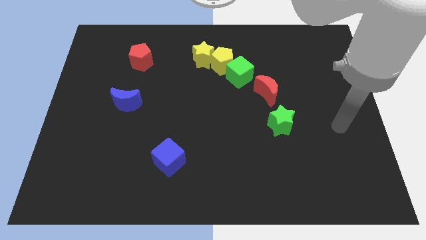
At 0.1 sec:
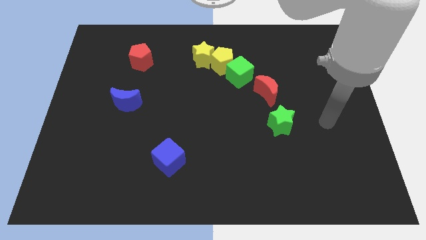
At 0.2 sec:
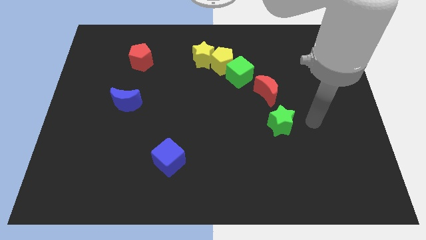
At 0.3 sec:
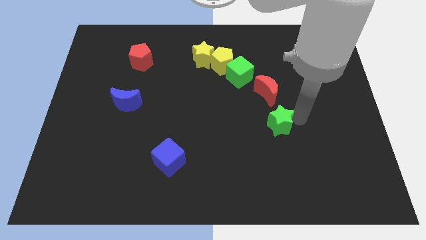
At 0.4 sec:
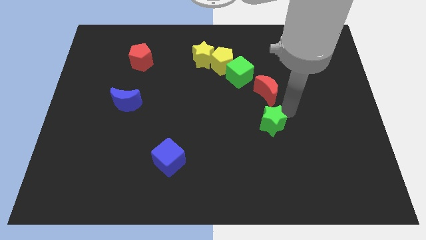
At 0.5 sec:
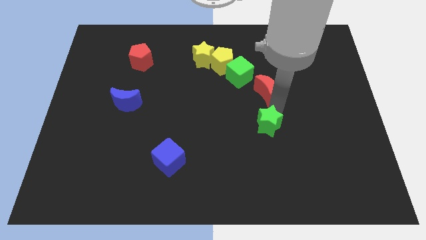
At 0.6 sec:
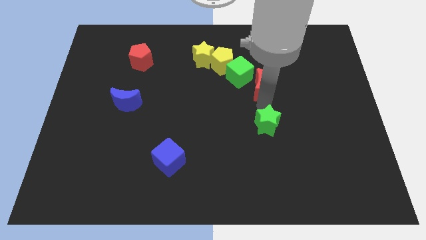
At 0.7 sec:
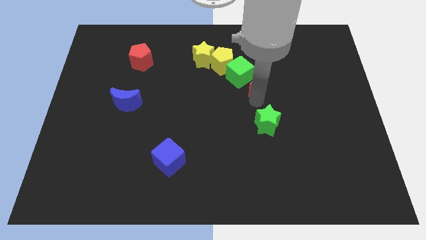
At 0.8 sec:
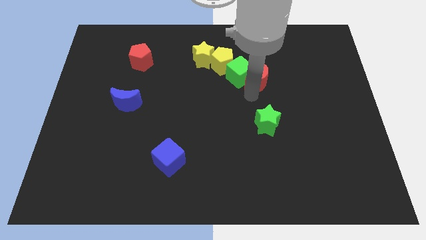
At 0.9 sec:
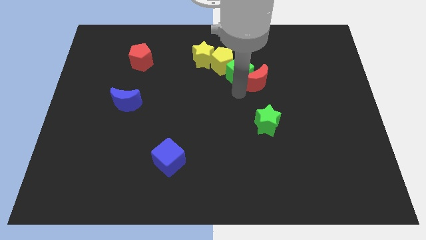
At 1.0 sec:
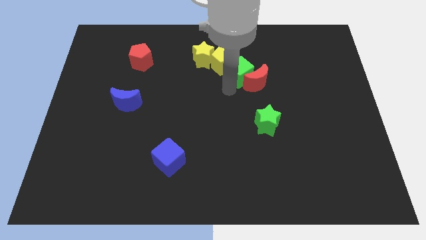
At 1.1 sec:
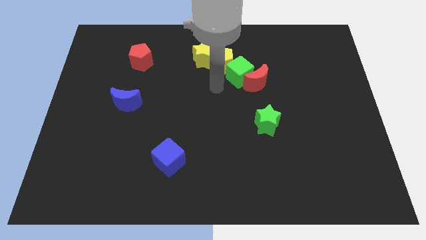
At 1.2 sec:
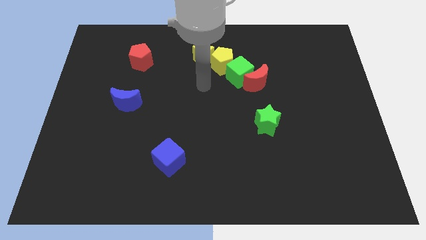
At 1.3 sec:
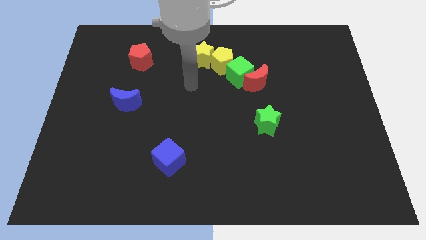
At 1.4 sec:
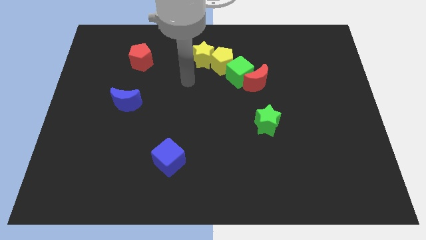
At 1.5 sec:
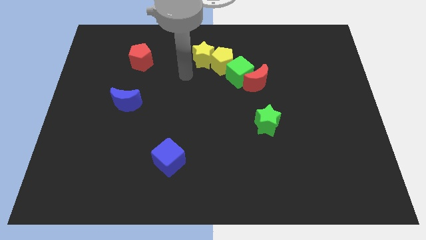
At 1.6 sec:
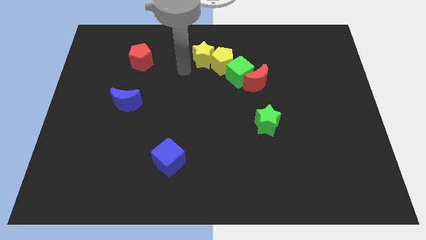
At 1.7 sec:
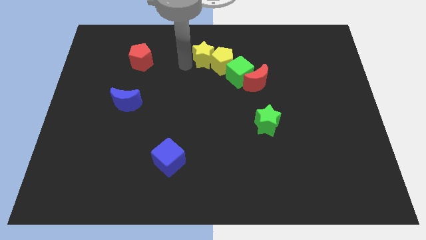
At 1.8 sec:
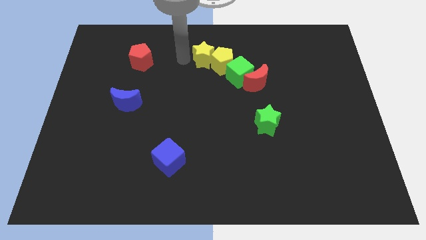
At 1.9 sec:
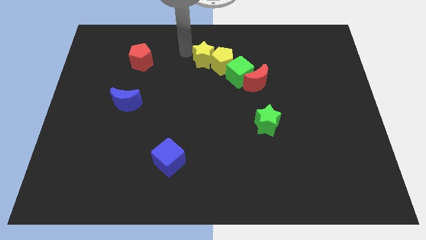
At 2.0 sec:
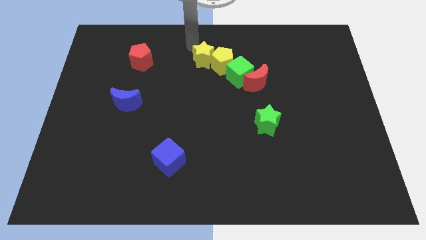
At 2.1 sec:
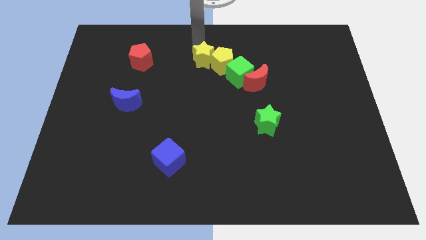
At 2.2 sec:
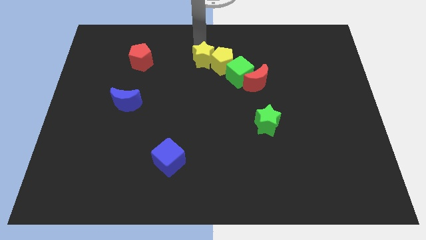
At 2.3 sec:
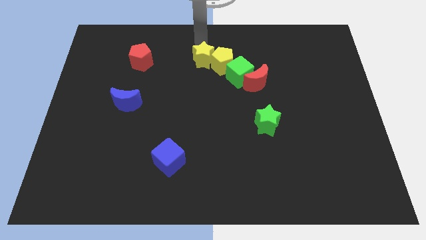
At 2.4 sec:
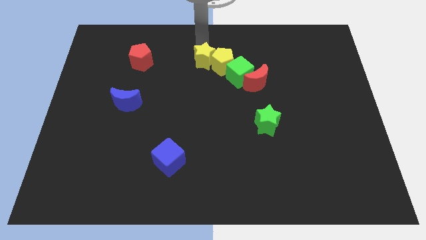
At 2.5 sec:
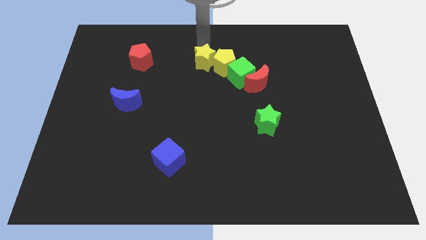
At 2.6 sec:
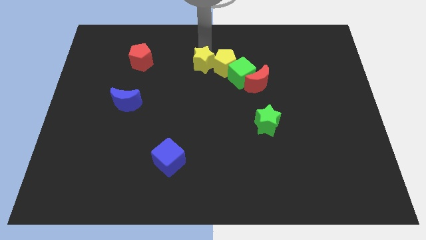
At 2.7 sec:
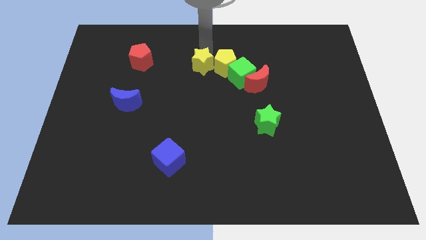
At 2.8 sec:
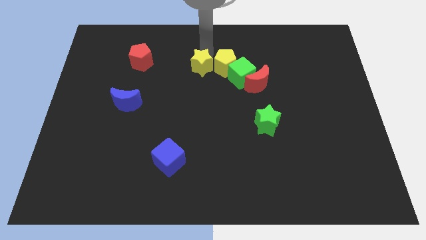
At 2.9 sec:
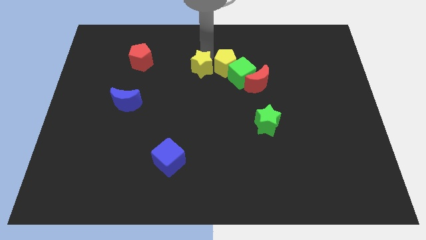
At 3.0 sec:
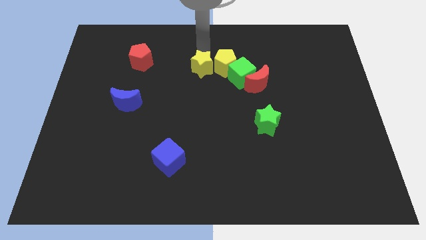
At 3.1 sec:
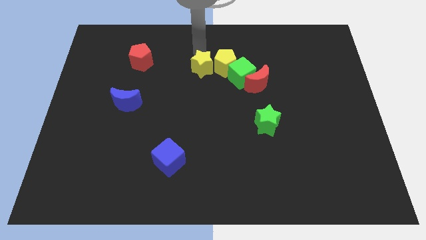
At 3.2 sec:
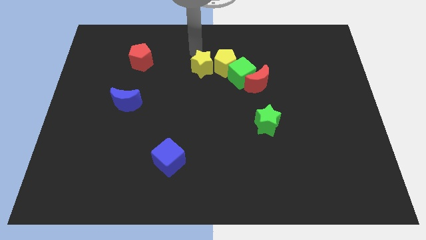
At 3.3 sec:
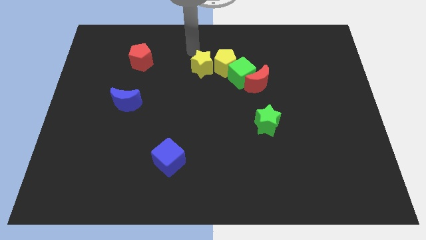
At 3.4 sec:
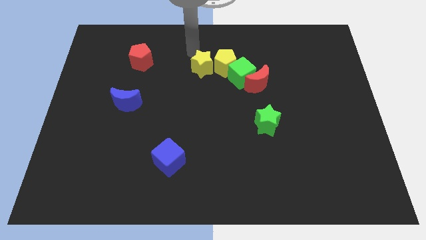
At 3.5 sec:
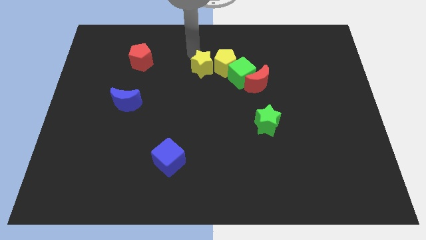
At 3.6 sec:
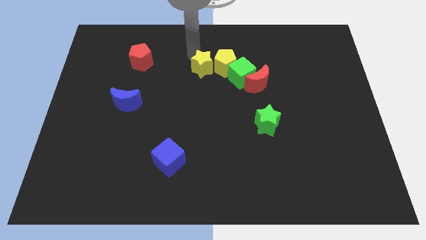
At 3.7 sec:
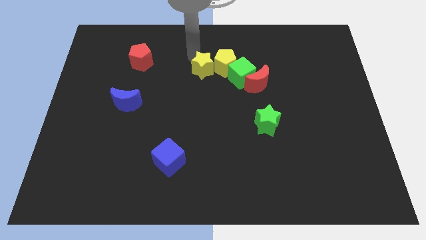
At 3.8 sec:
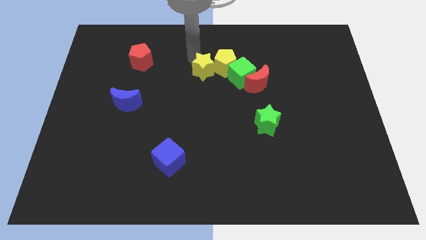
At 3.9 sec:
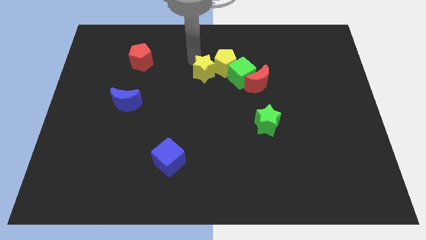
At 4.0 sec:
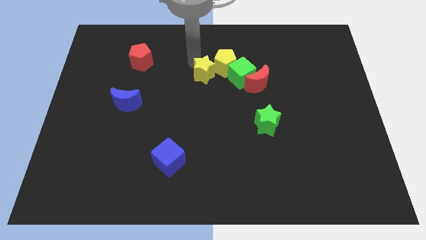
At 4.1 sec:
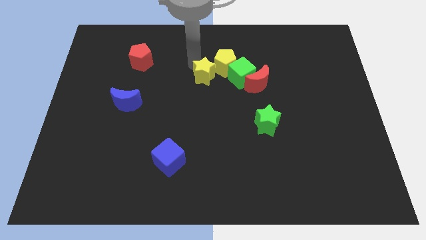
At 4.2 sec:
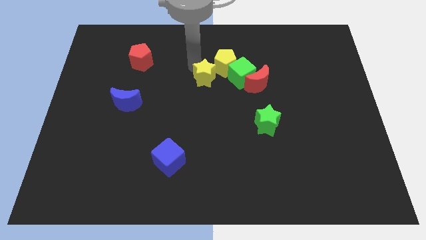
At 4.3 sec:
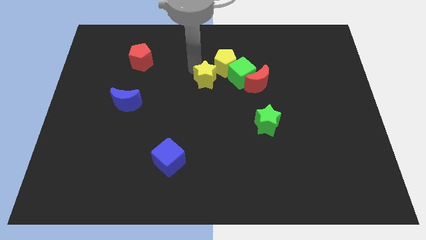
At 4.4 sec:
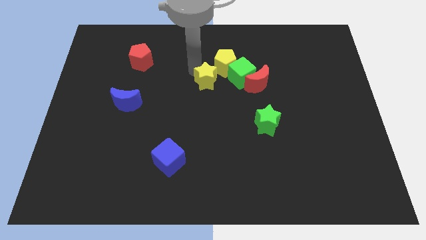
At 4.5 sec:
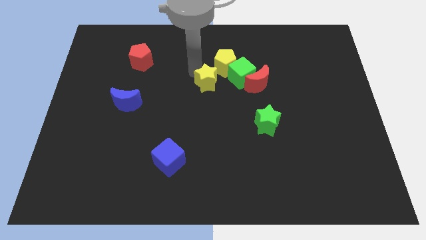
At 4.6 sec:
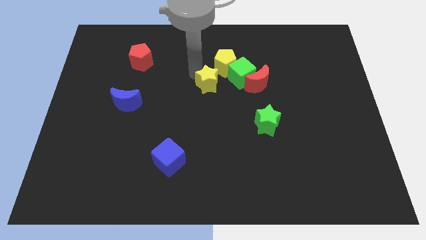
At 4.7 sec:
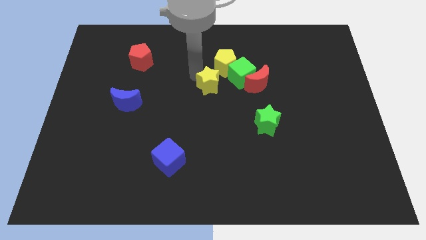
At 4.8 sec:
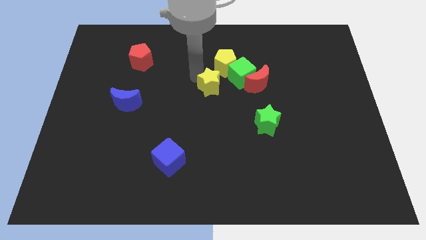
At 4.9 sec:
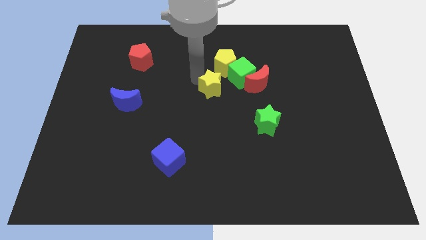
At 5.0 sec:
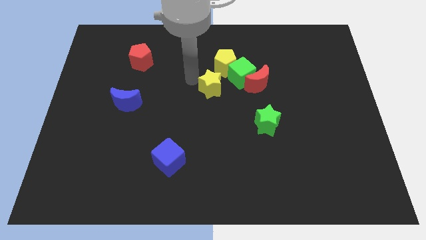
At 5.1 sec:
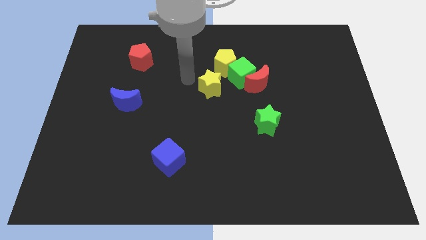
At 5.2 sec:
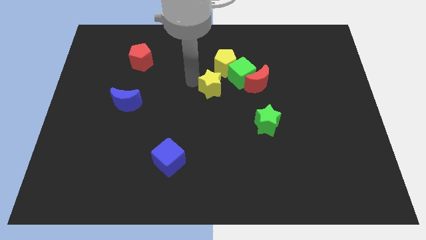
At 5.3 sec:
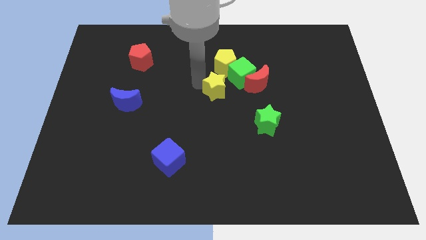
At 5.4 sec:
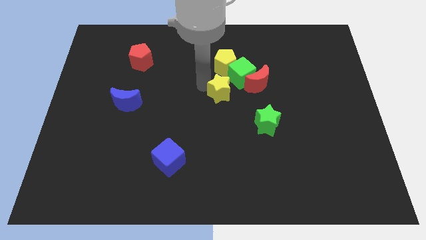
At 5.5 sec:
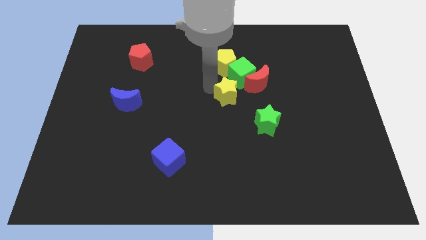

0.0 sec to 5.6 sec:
push the yellow star to the bottom of the green cube

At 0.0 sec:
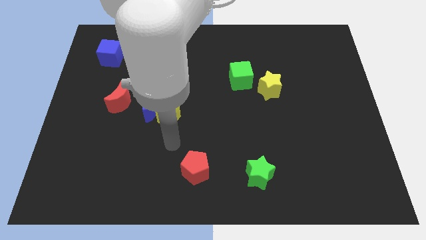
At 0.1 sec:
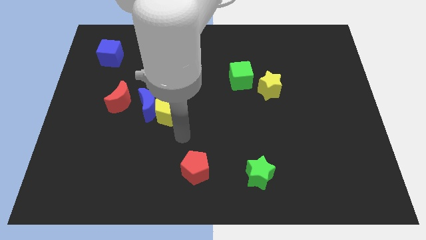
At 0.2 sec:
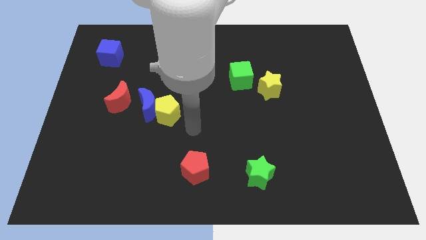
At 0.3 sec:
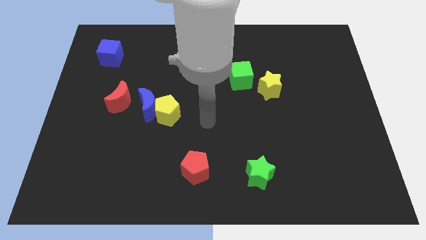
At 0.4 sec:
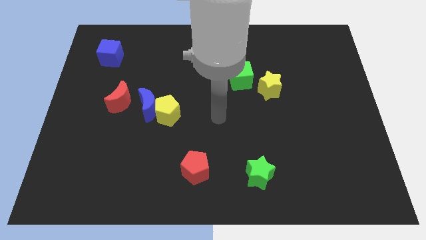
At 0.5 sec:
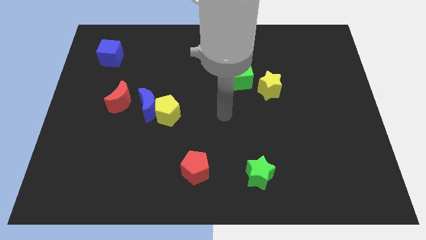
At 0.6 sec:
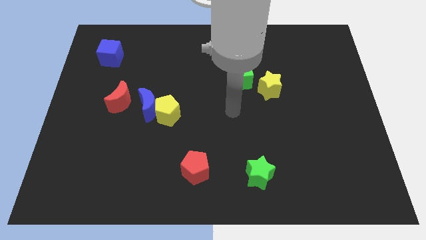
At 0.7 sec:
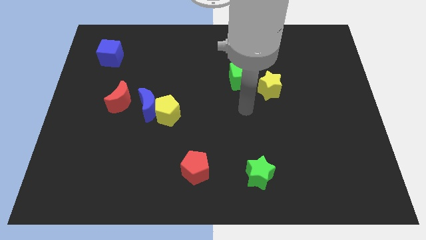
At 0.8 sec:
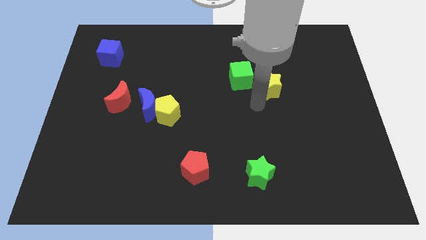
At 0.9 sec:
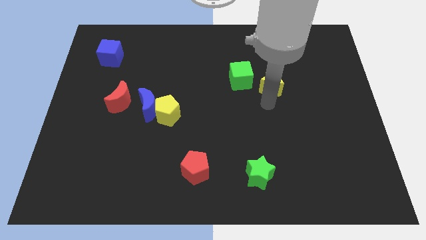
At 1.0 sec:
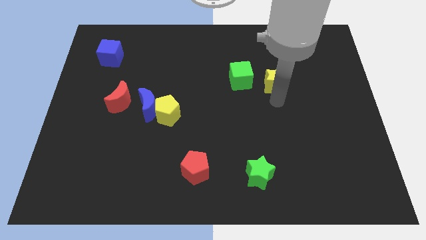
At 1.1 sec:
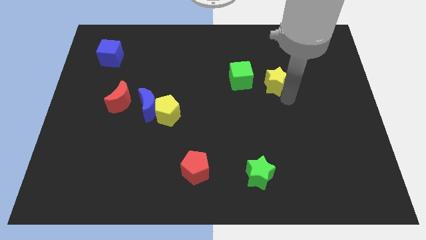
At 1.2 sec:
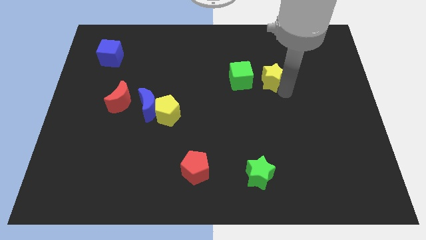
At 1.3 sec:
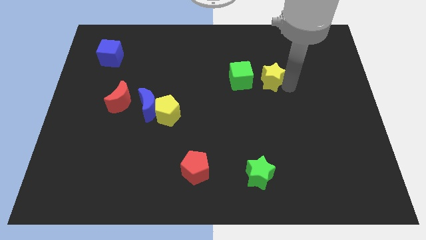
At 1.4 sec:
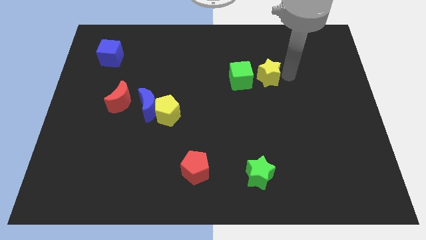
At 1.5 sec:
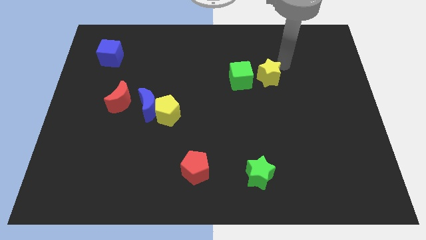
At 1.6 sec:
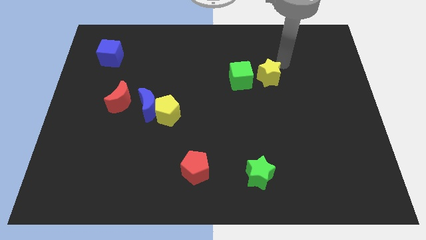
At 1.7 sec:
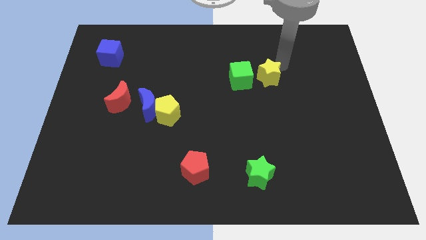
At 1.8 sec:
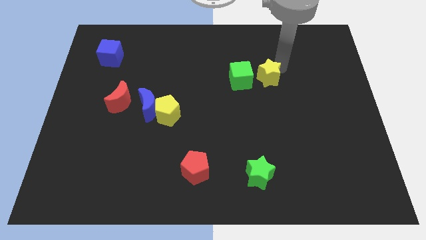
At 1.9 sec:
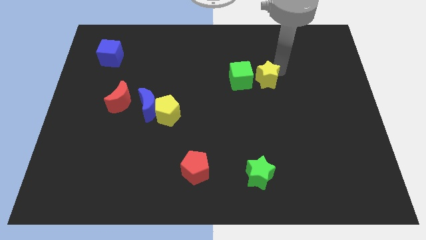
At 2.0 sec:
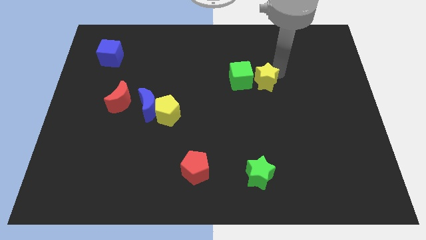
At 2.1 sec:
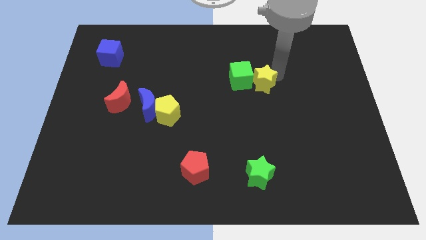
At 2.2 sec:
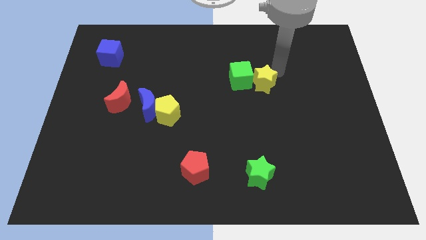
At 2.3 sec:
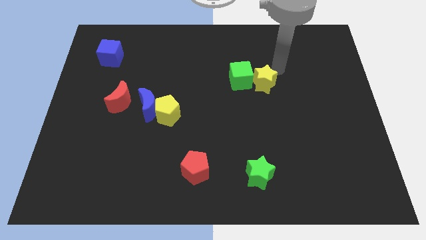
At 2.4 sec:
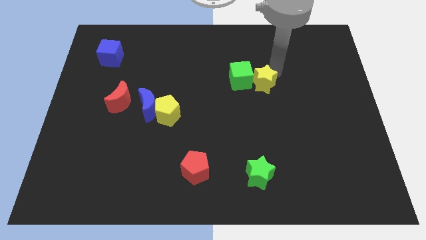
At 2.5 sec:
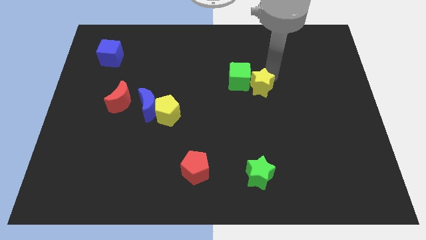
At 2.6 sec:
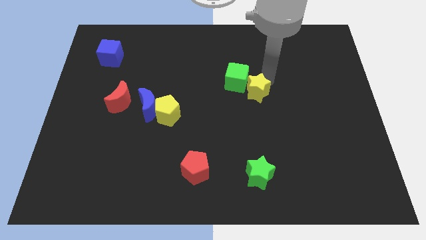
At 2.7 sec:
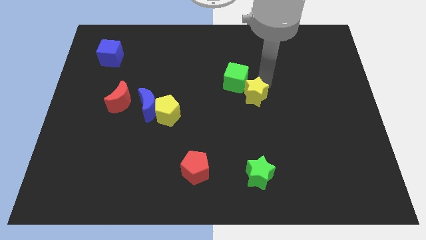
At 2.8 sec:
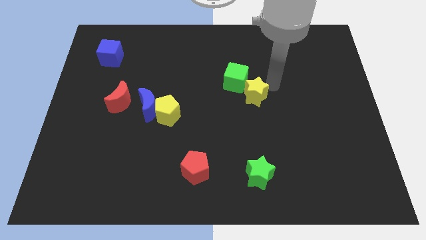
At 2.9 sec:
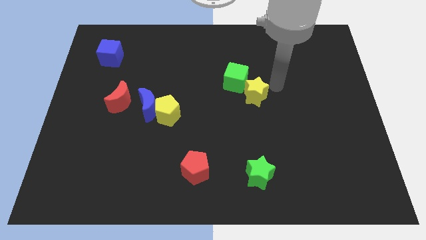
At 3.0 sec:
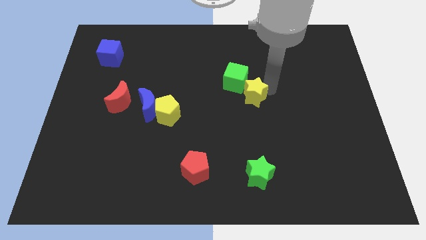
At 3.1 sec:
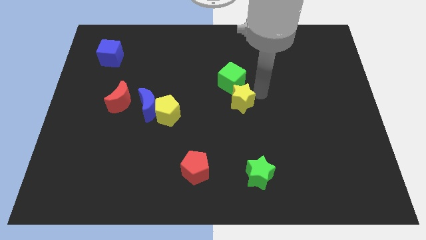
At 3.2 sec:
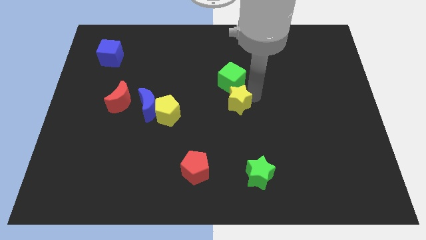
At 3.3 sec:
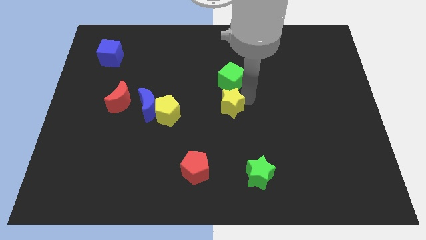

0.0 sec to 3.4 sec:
slide the yellow star to the right of the yellow pentagon
